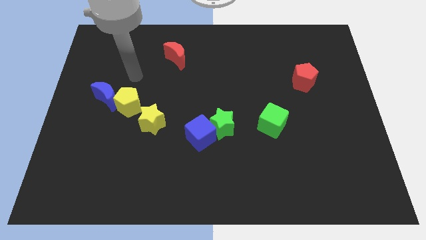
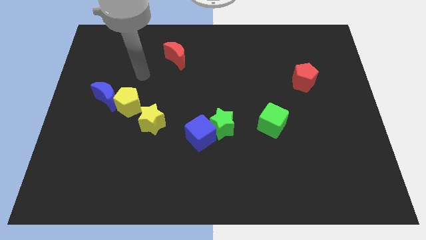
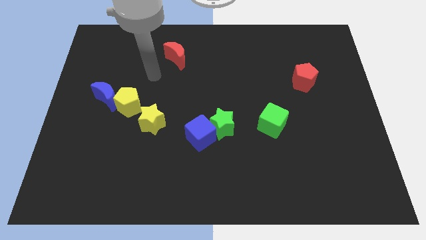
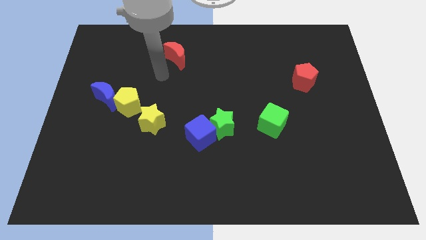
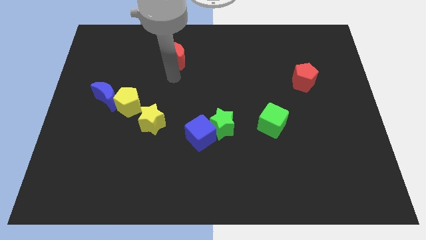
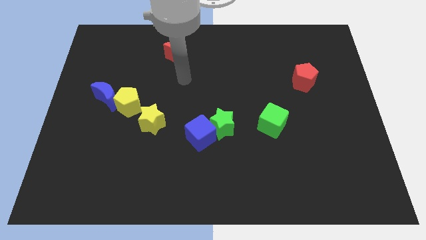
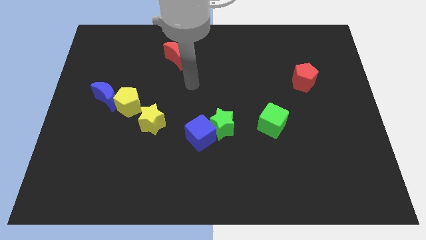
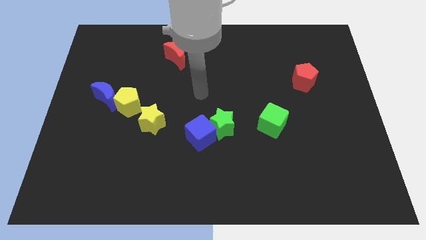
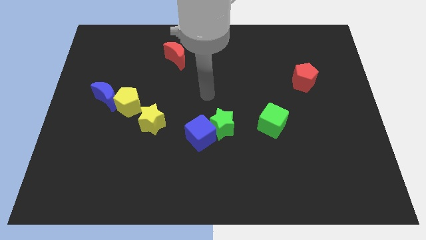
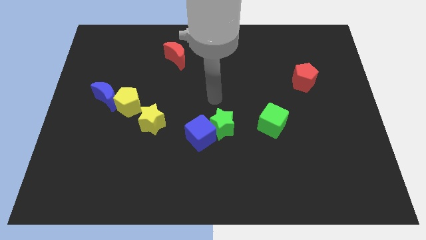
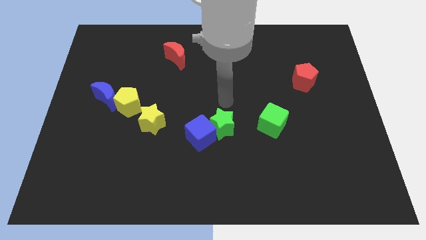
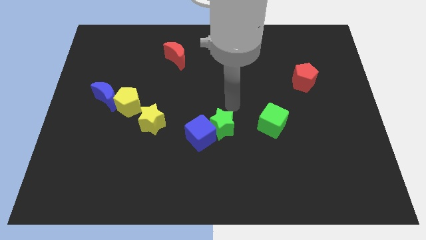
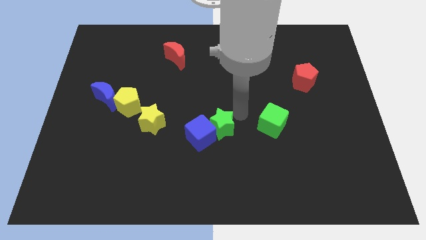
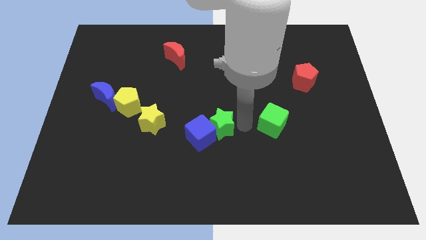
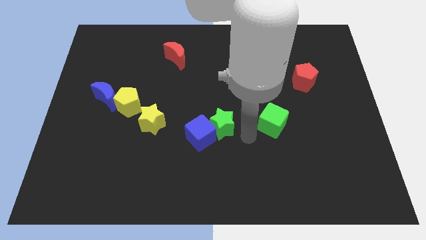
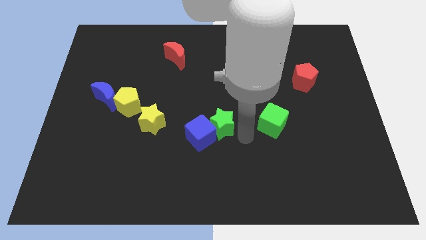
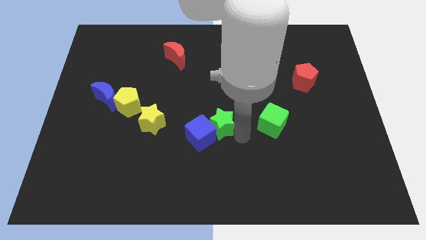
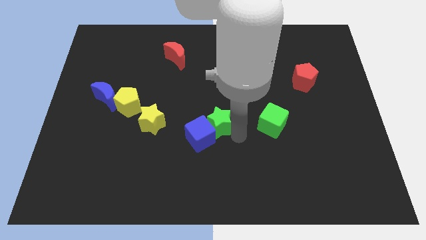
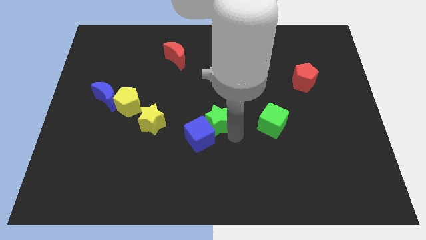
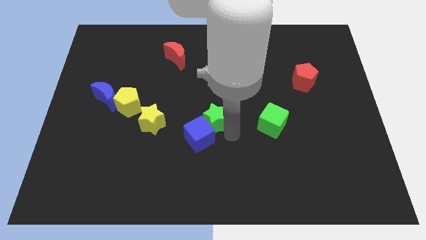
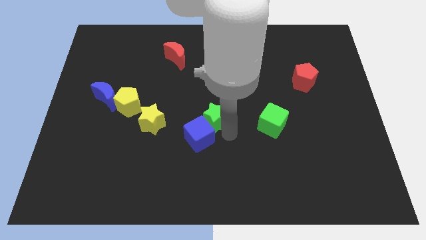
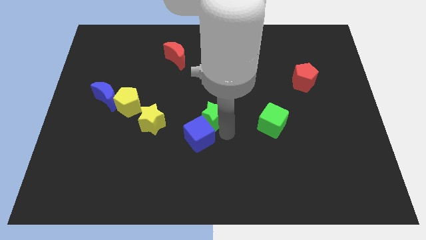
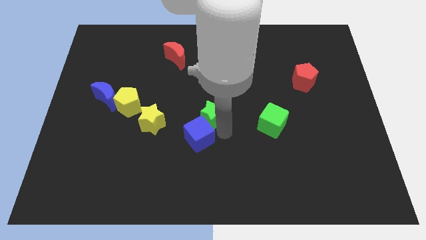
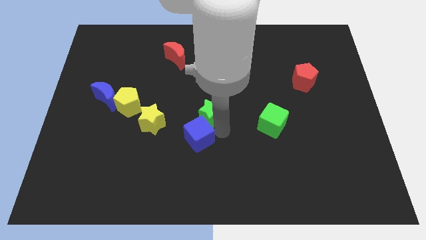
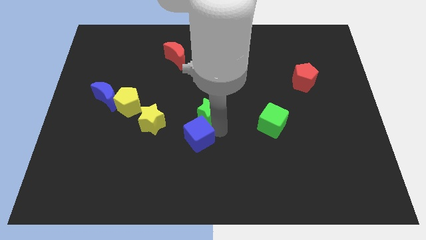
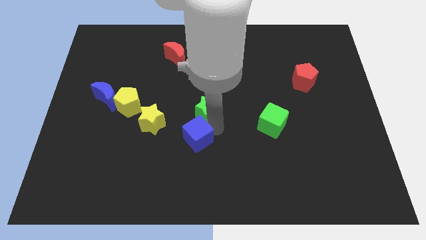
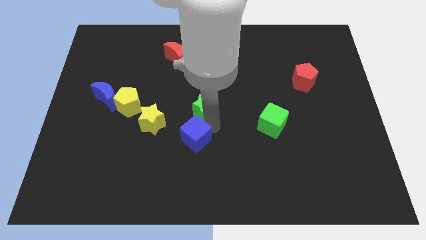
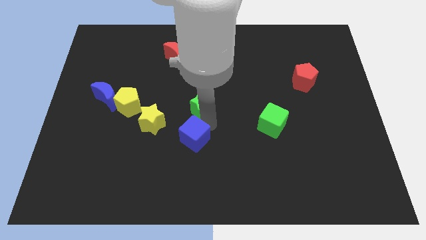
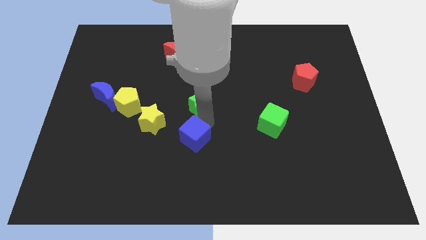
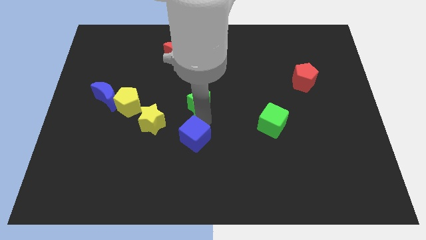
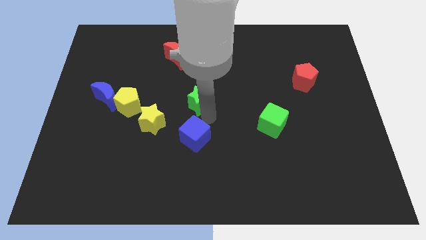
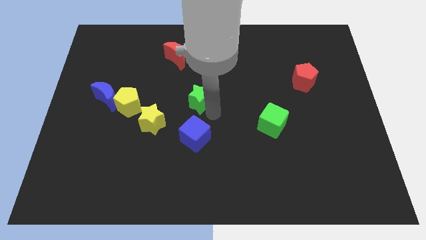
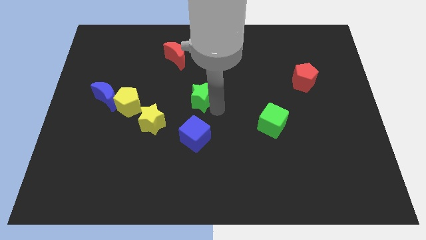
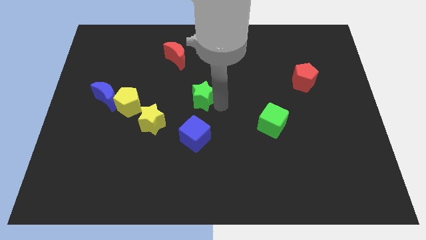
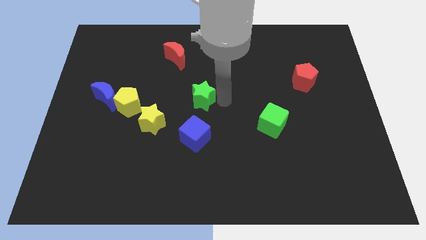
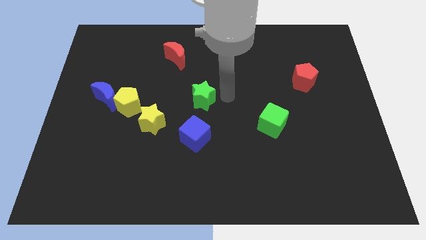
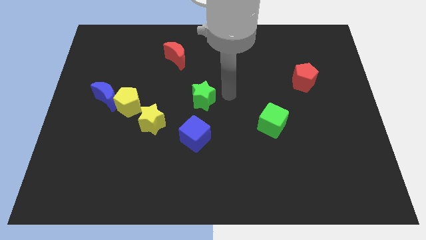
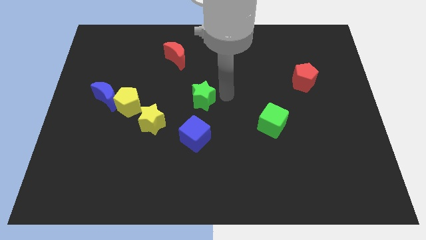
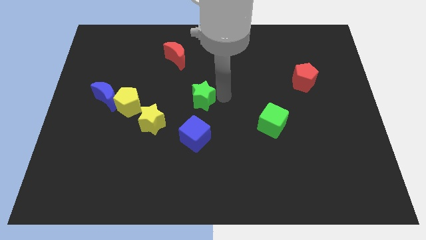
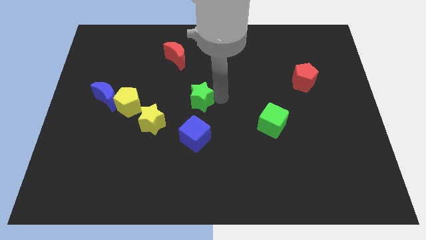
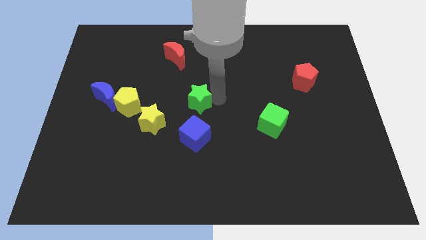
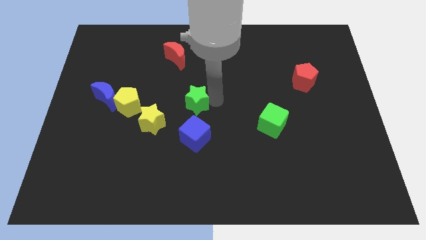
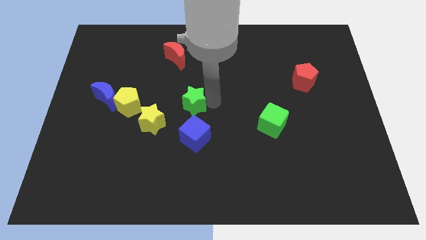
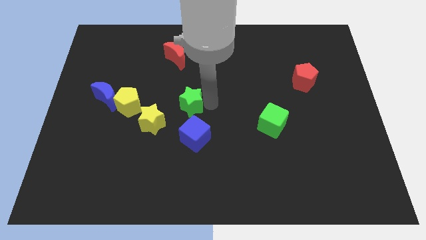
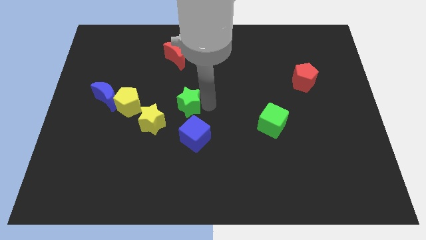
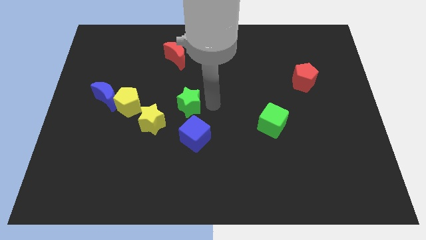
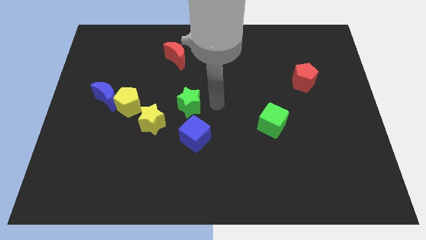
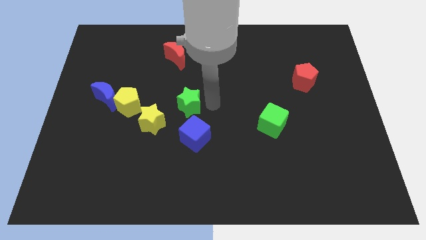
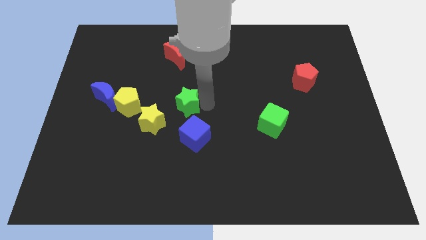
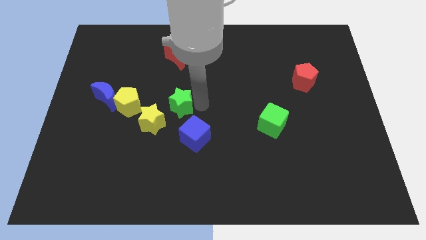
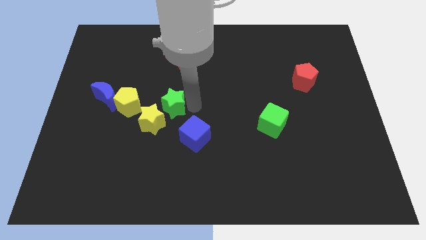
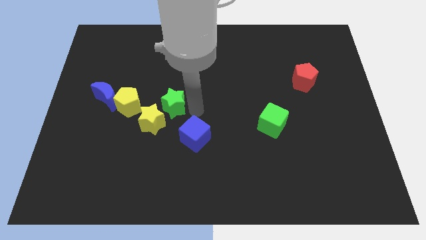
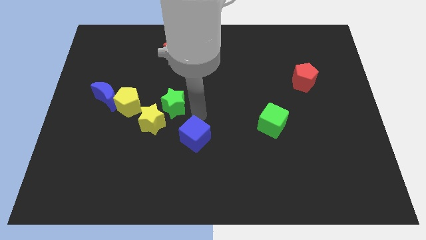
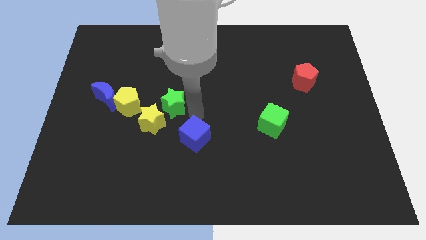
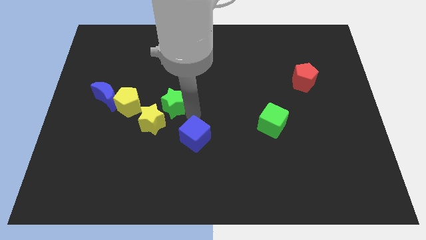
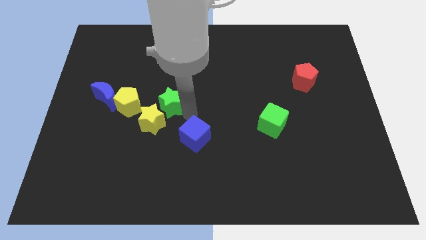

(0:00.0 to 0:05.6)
move the green star just right of the blue moon

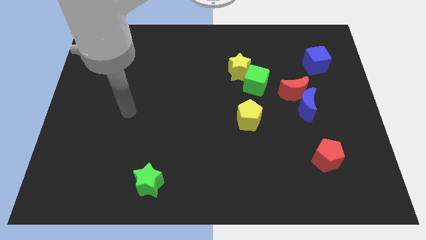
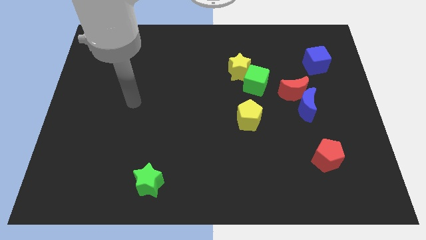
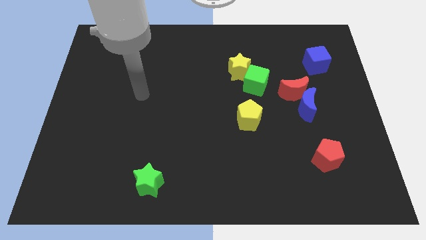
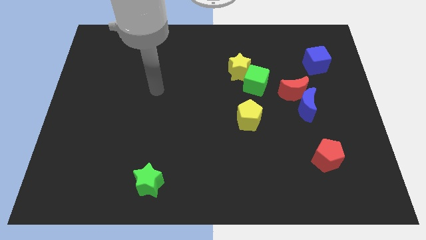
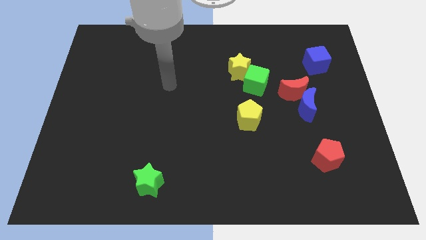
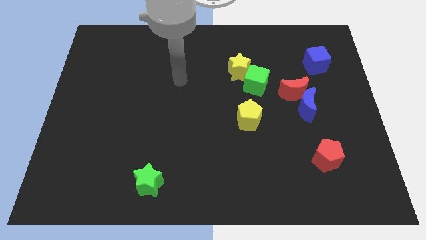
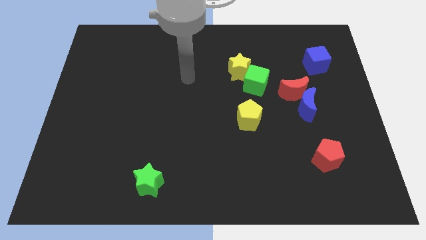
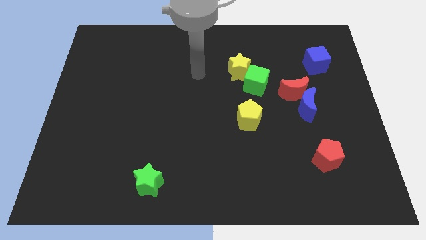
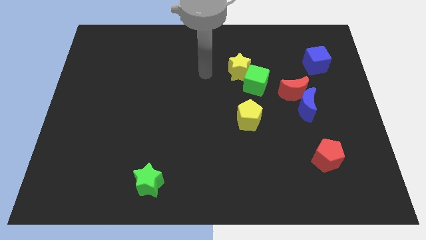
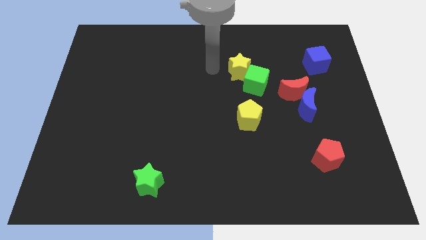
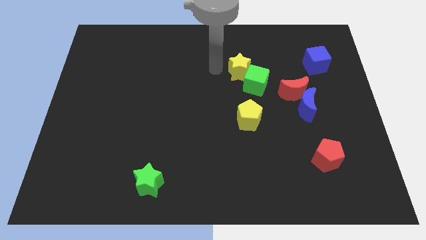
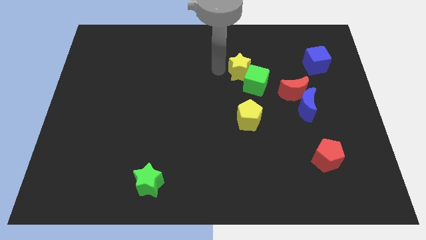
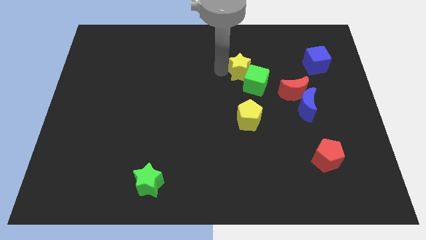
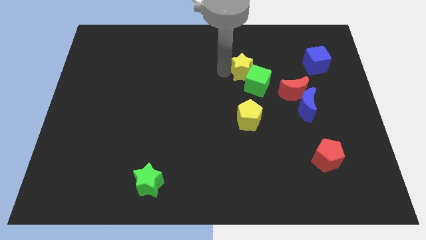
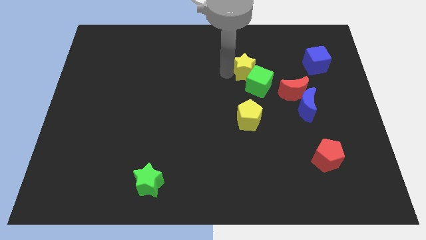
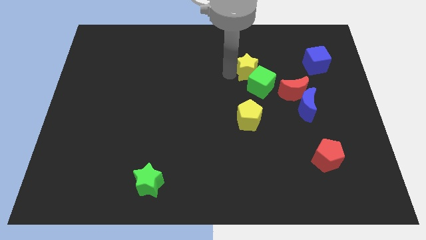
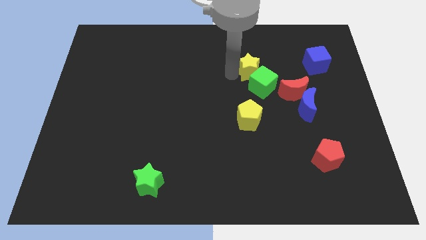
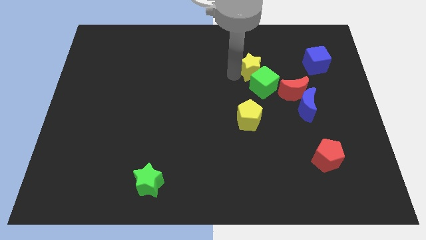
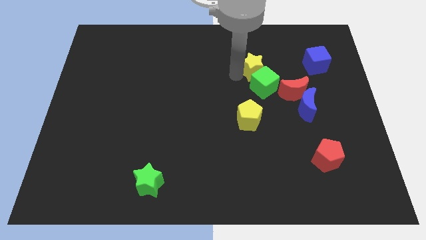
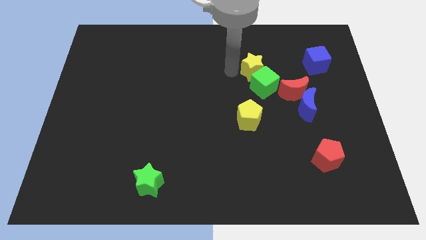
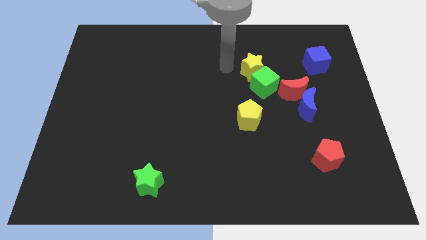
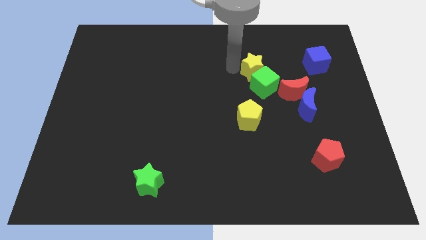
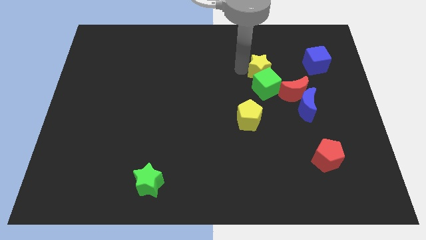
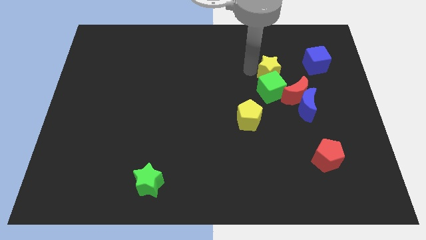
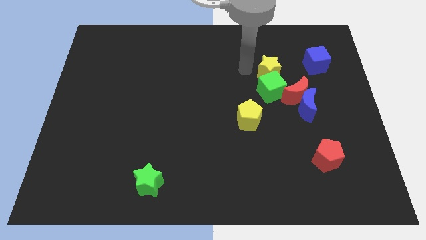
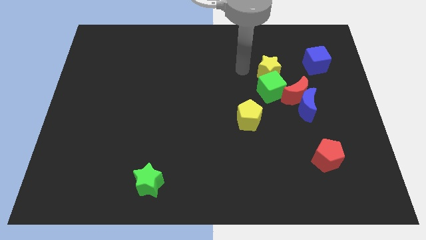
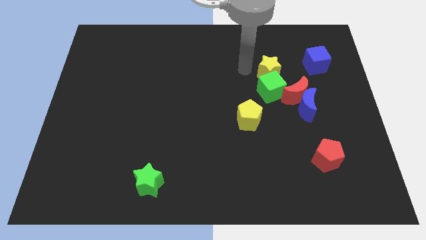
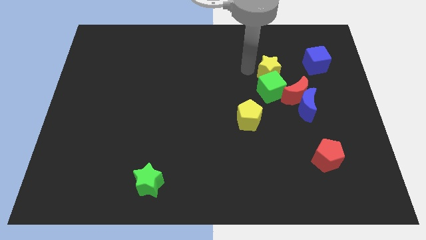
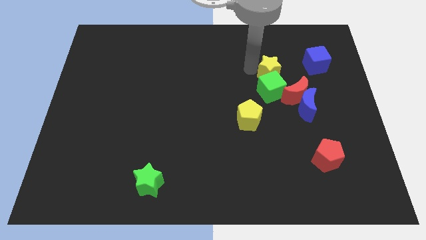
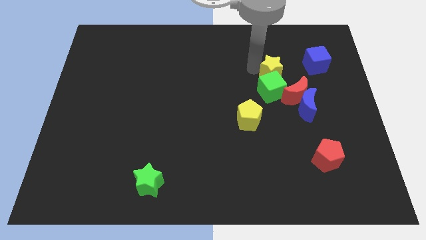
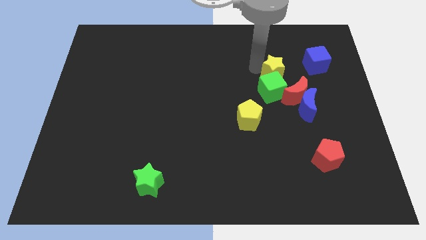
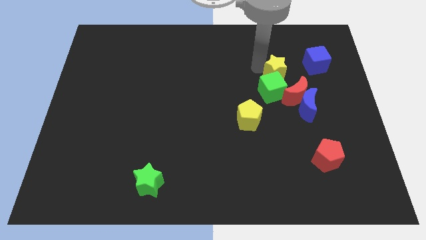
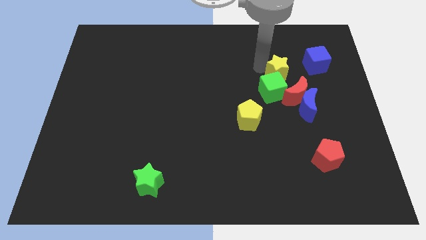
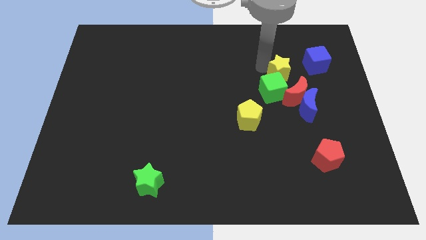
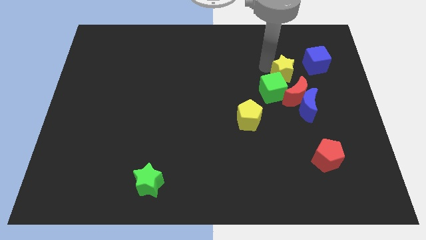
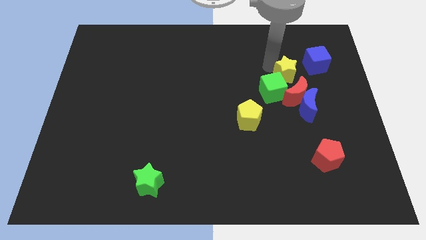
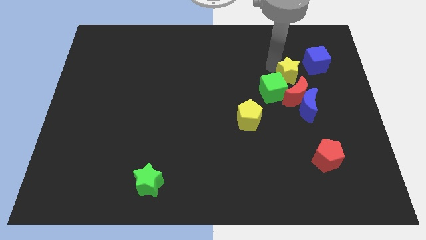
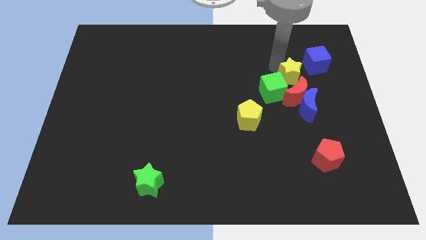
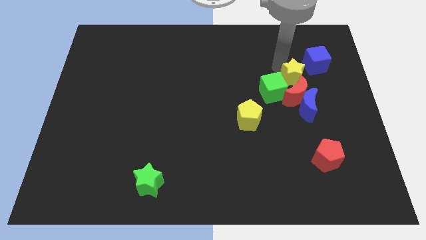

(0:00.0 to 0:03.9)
move the yellow star to the top right side of the red moon
